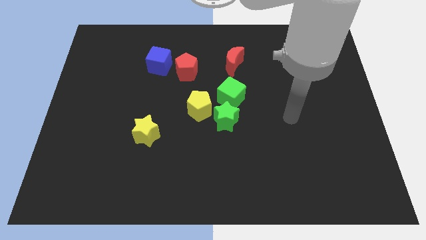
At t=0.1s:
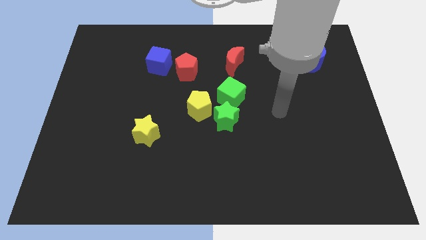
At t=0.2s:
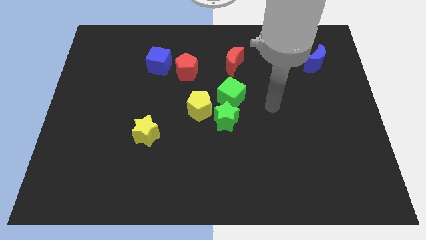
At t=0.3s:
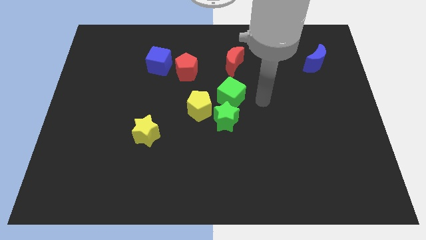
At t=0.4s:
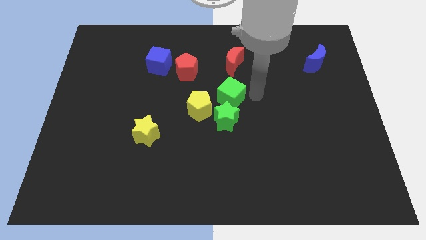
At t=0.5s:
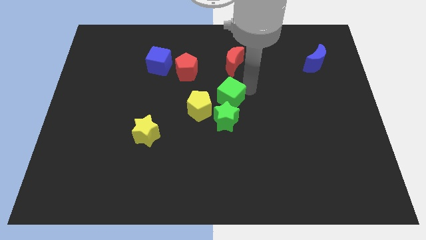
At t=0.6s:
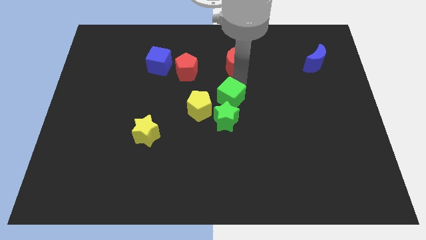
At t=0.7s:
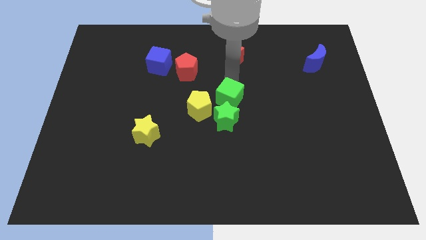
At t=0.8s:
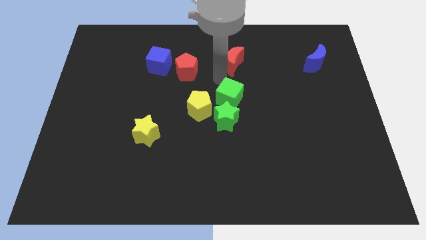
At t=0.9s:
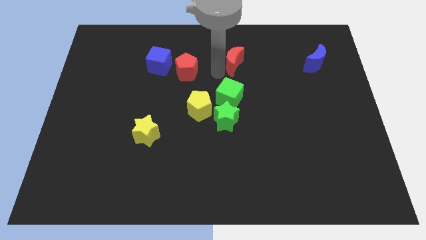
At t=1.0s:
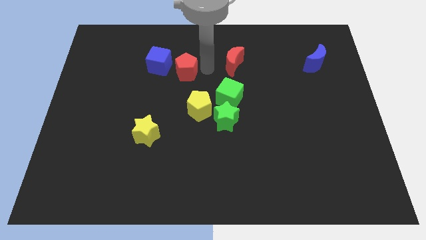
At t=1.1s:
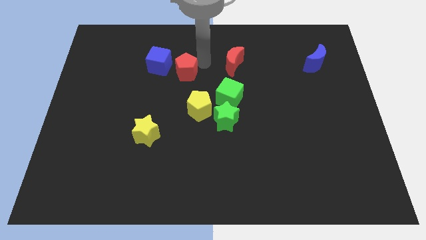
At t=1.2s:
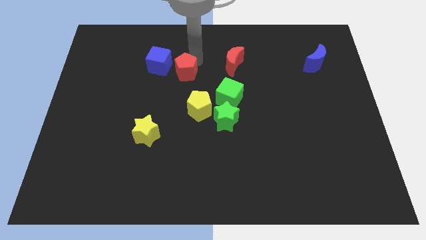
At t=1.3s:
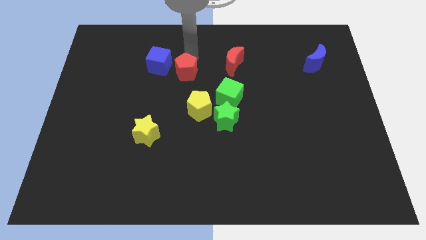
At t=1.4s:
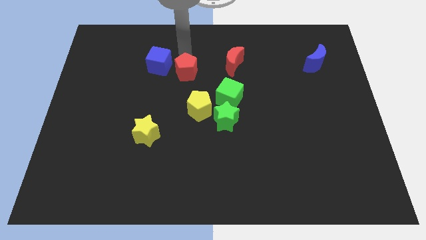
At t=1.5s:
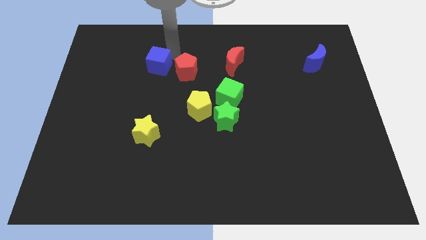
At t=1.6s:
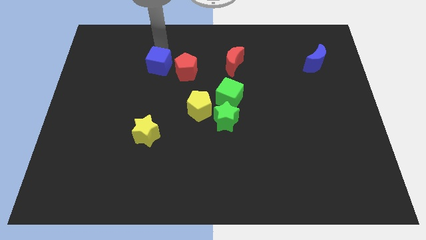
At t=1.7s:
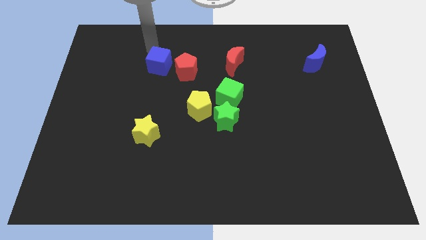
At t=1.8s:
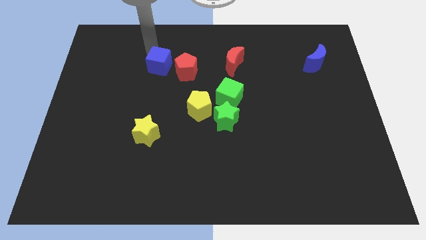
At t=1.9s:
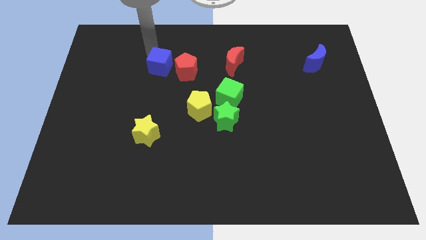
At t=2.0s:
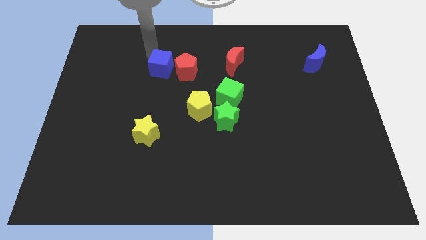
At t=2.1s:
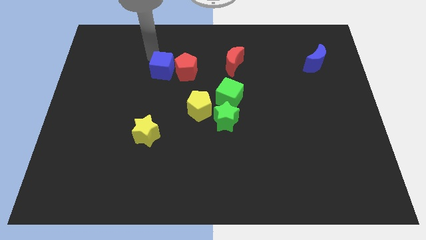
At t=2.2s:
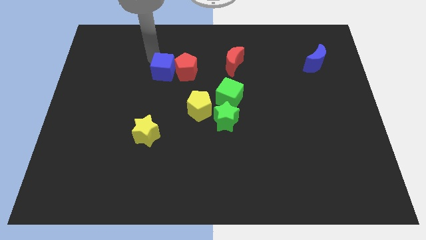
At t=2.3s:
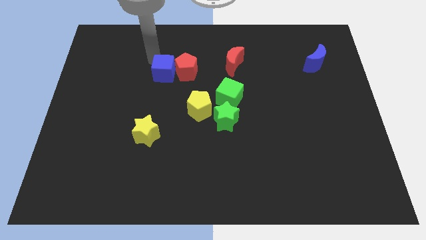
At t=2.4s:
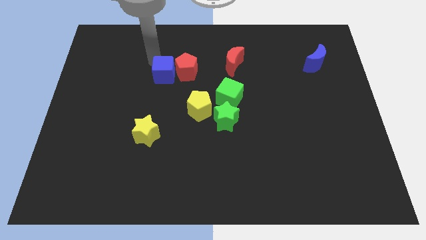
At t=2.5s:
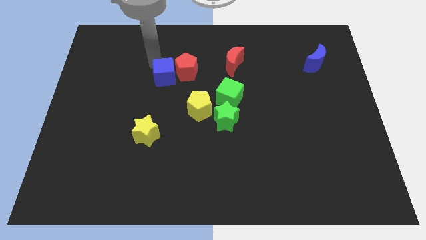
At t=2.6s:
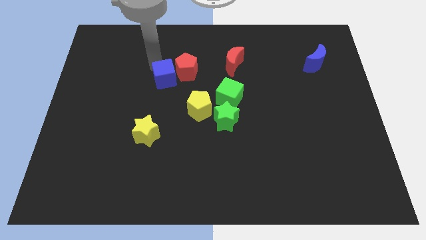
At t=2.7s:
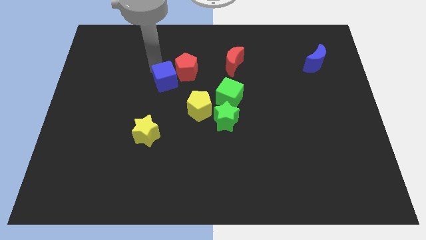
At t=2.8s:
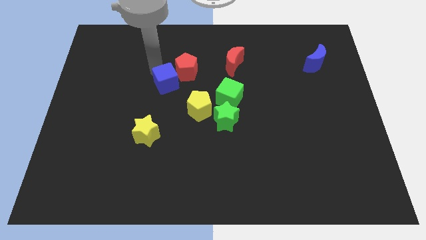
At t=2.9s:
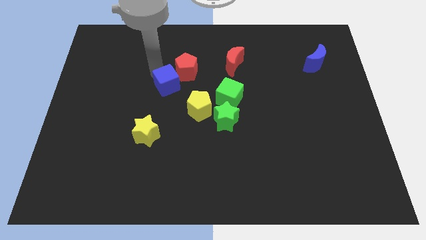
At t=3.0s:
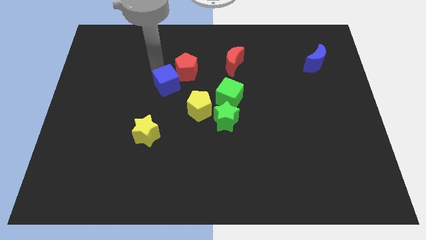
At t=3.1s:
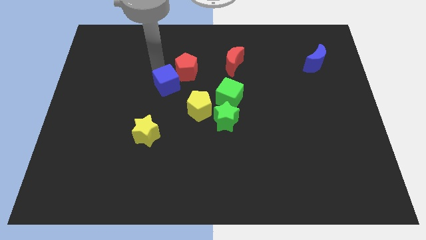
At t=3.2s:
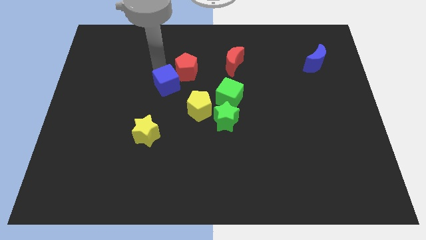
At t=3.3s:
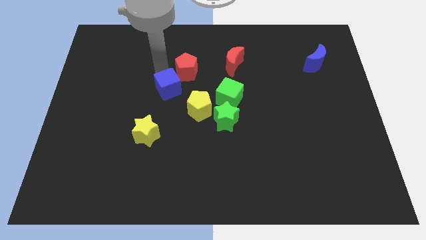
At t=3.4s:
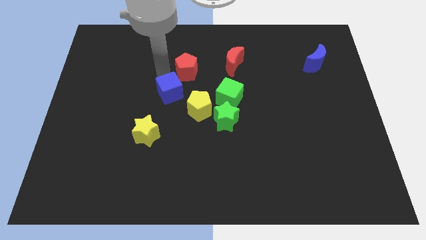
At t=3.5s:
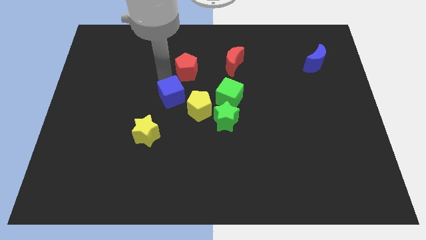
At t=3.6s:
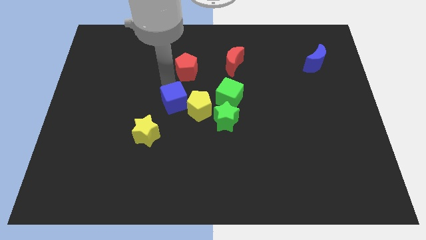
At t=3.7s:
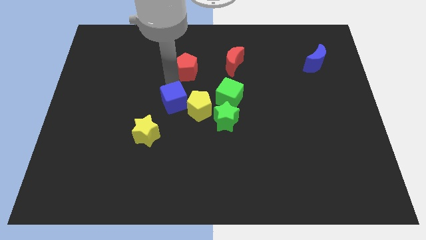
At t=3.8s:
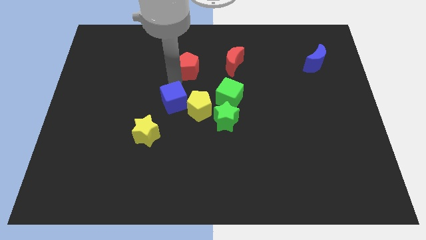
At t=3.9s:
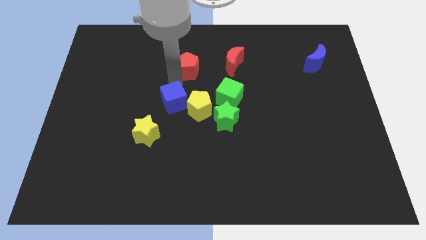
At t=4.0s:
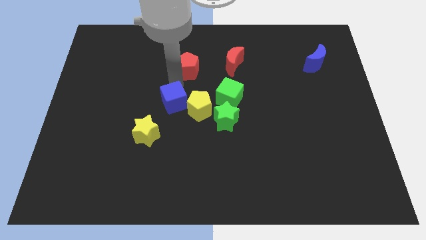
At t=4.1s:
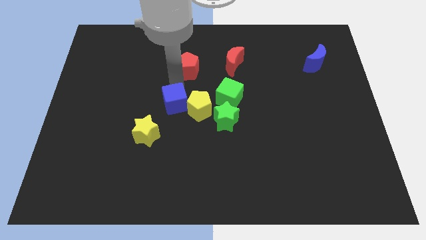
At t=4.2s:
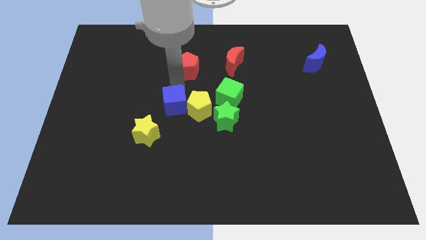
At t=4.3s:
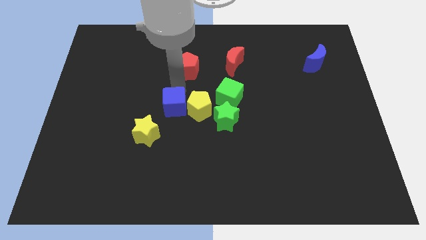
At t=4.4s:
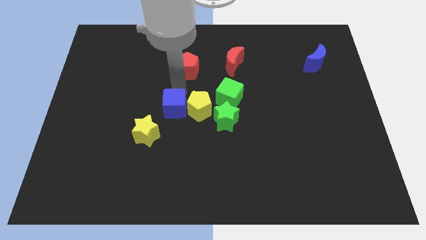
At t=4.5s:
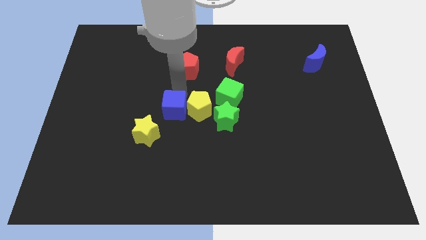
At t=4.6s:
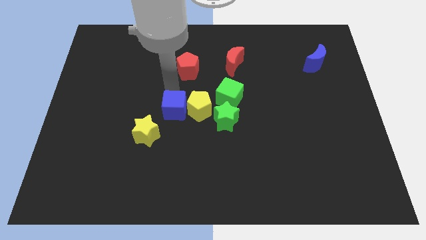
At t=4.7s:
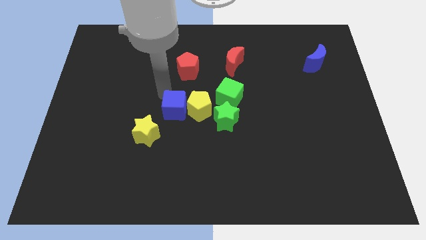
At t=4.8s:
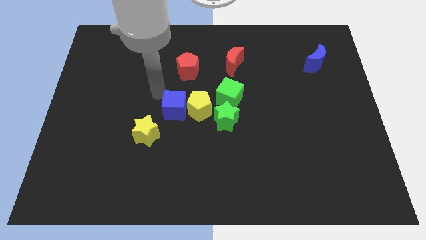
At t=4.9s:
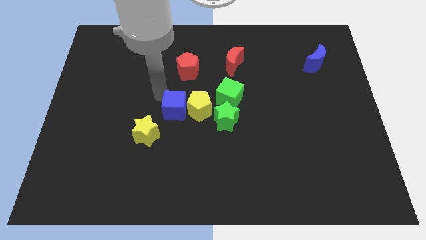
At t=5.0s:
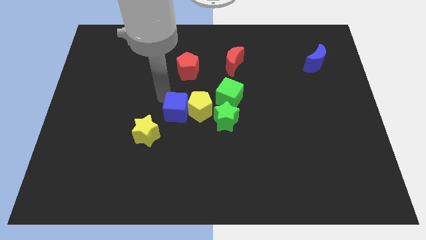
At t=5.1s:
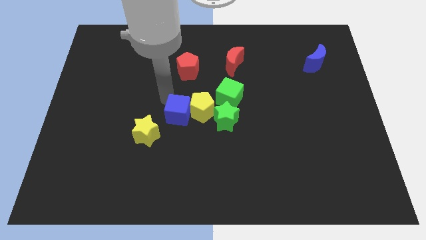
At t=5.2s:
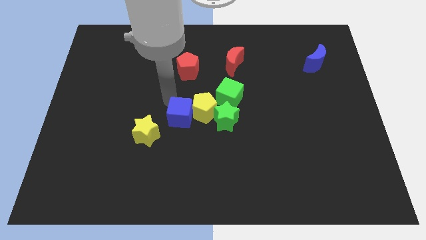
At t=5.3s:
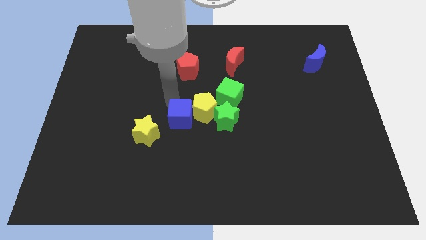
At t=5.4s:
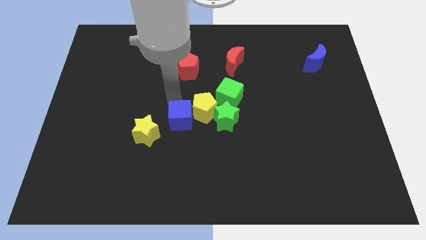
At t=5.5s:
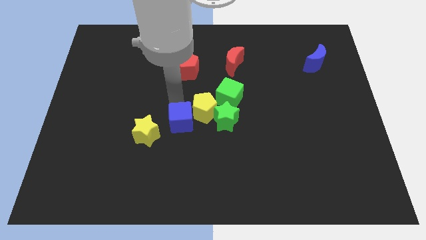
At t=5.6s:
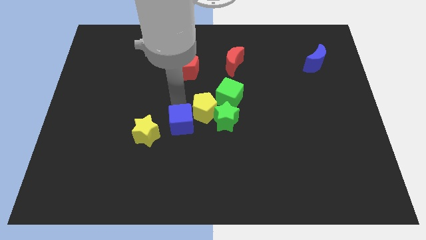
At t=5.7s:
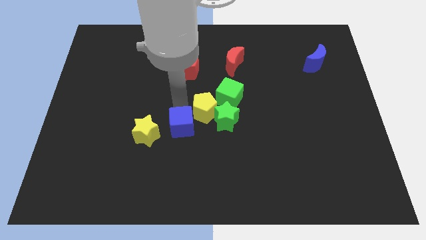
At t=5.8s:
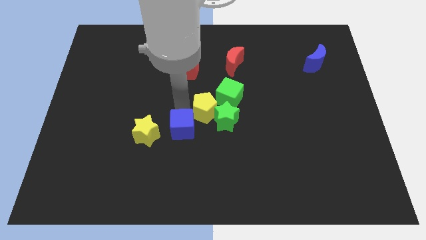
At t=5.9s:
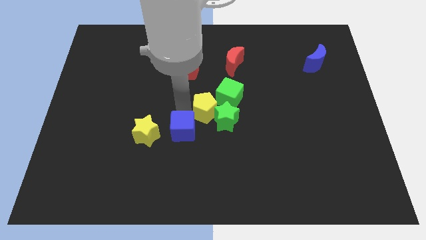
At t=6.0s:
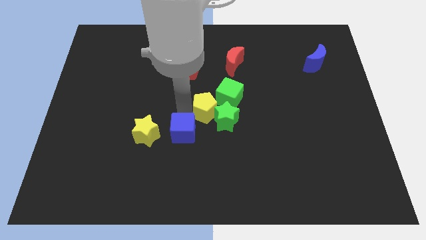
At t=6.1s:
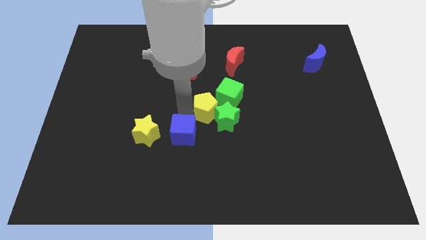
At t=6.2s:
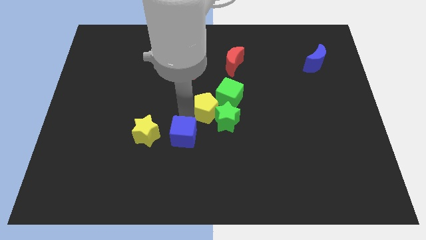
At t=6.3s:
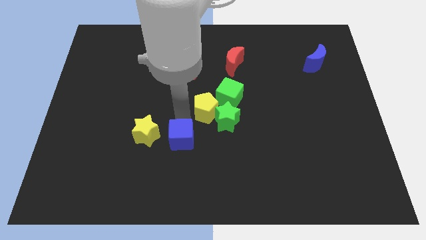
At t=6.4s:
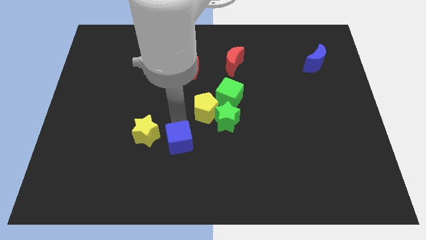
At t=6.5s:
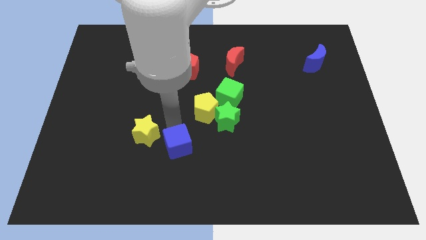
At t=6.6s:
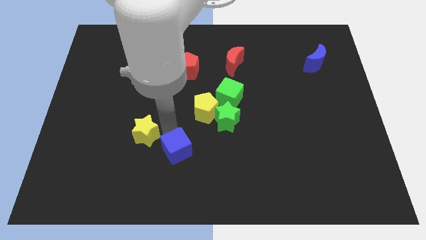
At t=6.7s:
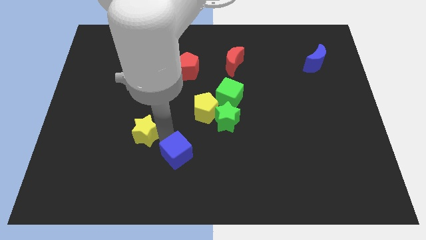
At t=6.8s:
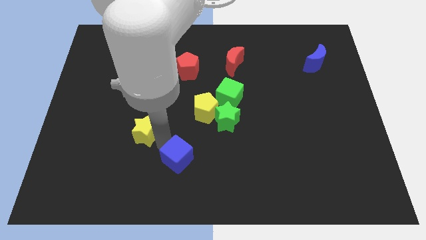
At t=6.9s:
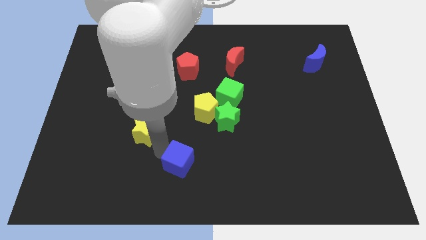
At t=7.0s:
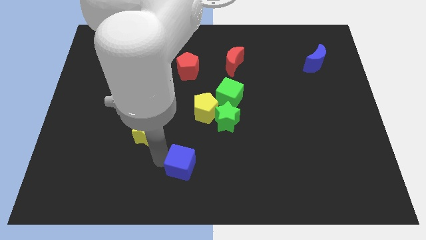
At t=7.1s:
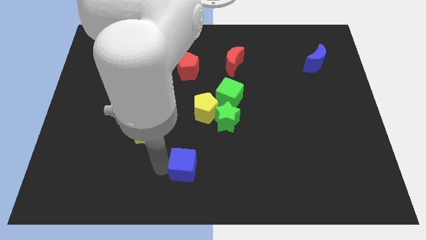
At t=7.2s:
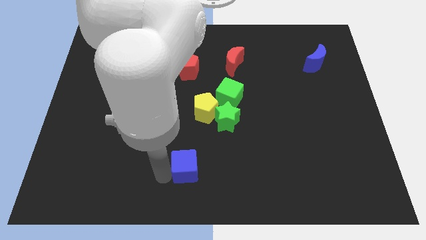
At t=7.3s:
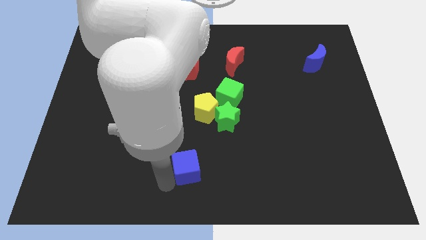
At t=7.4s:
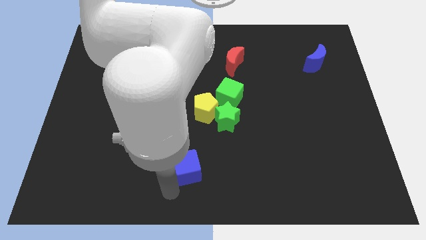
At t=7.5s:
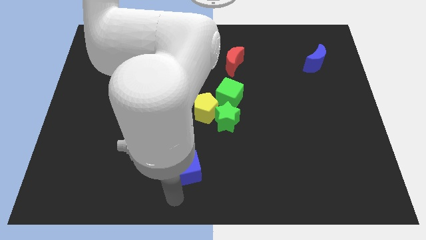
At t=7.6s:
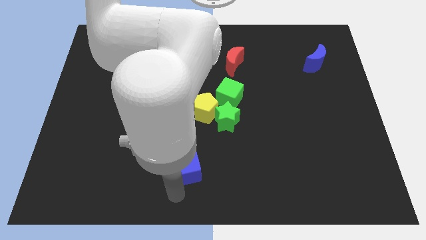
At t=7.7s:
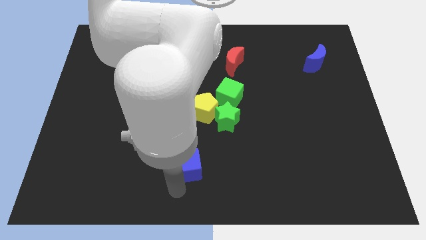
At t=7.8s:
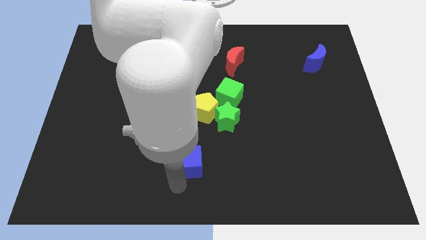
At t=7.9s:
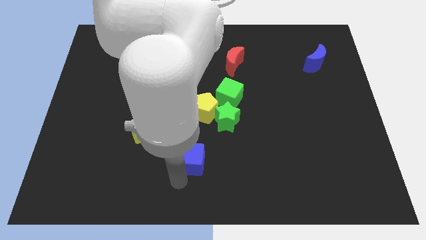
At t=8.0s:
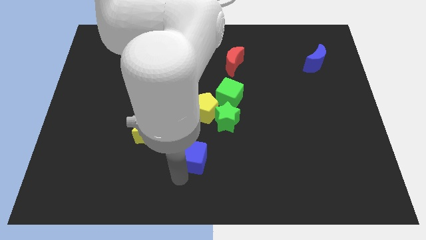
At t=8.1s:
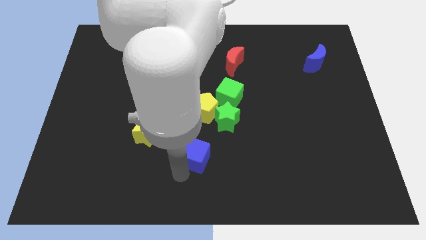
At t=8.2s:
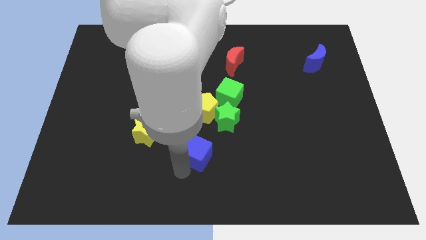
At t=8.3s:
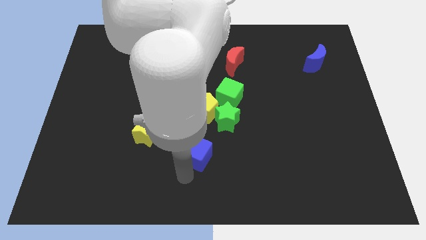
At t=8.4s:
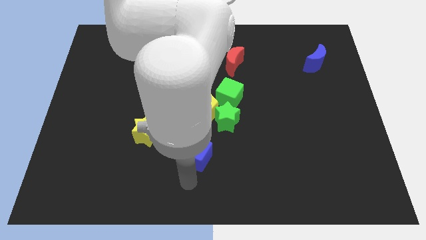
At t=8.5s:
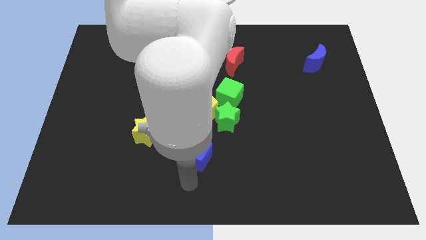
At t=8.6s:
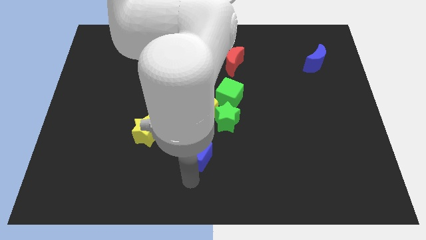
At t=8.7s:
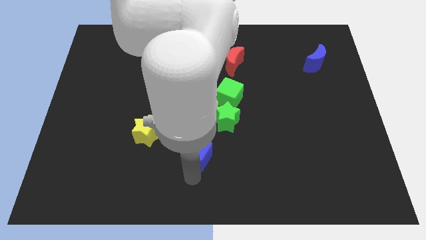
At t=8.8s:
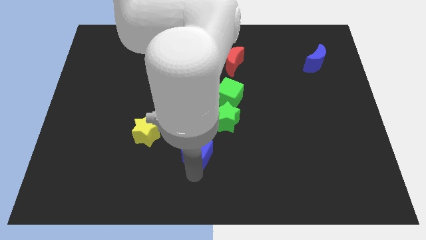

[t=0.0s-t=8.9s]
slide the blue cube diagonally downwards and right
